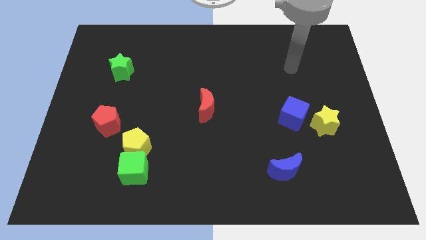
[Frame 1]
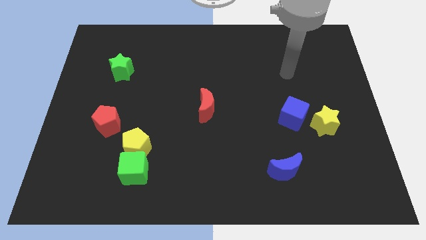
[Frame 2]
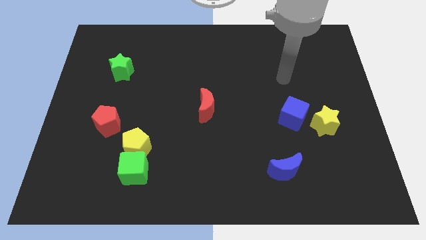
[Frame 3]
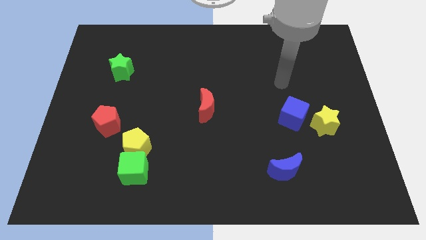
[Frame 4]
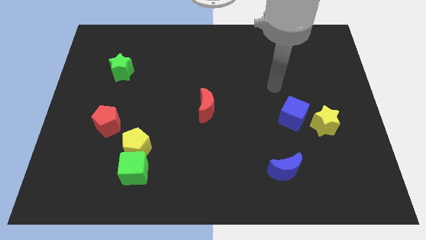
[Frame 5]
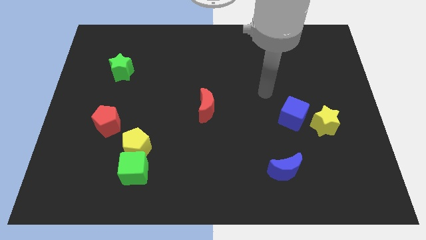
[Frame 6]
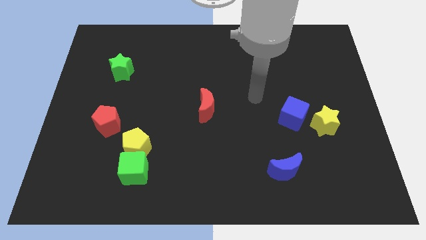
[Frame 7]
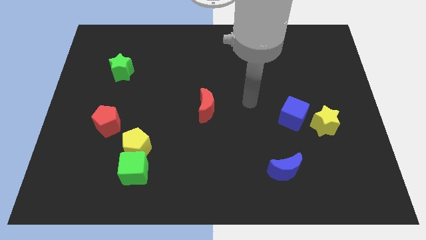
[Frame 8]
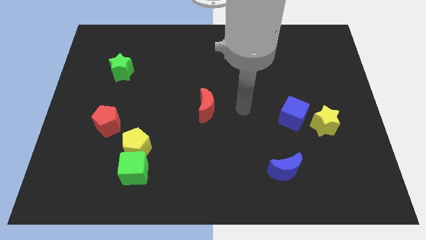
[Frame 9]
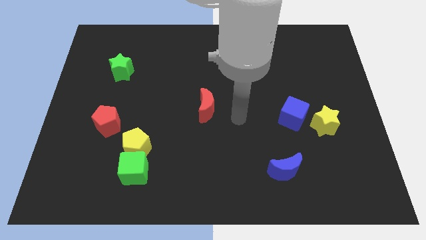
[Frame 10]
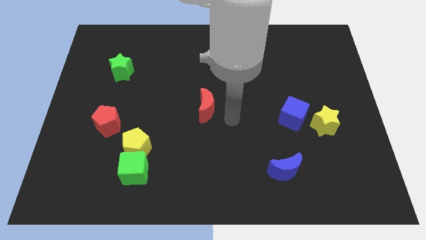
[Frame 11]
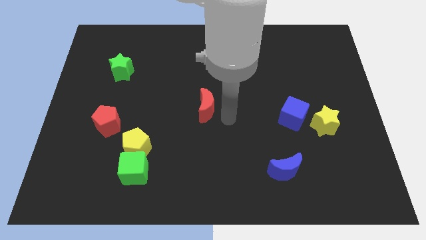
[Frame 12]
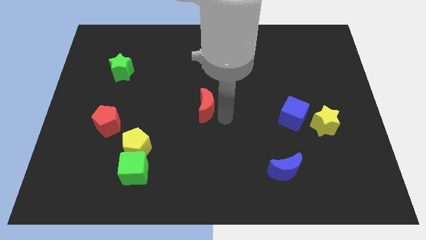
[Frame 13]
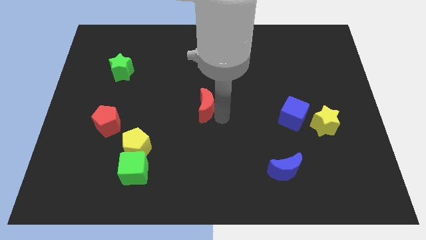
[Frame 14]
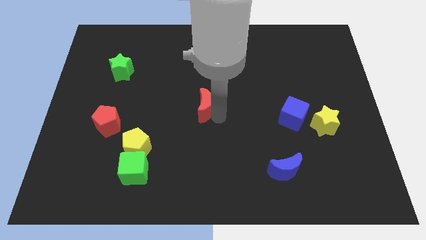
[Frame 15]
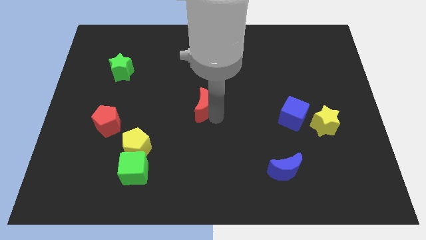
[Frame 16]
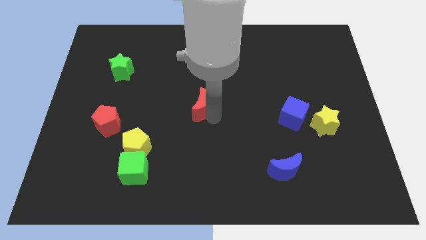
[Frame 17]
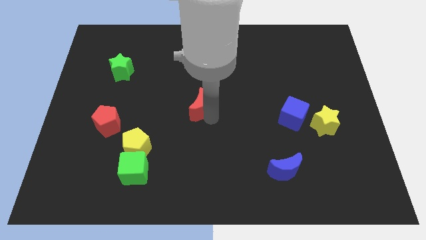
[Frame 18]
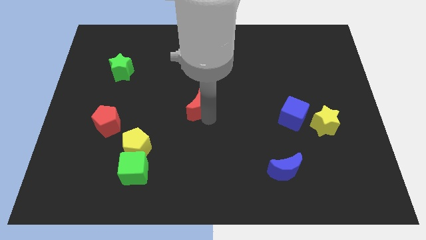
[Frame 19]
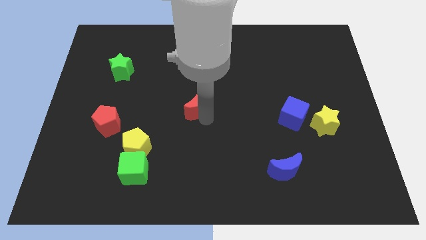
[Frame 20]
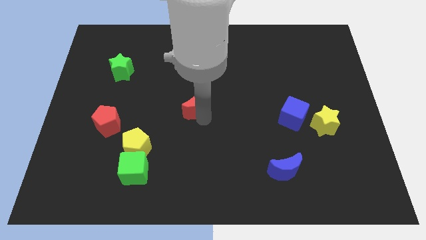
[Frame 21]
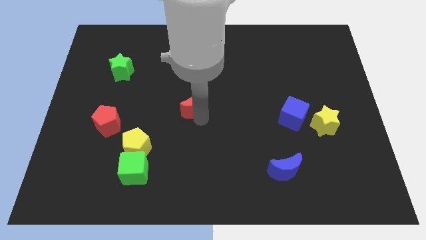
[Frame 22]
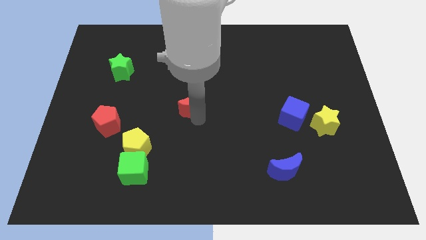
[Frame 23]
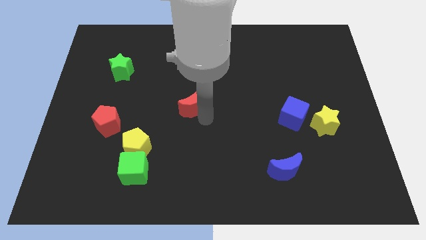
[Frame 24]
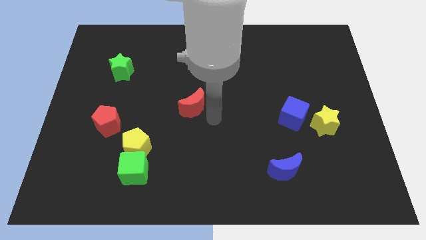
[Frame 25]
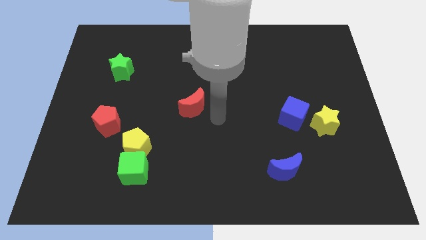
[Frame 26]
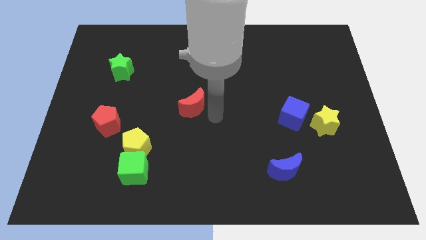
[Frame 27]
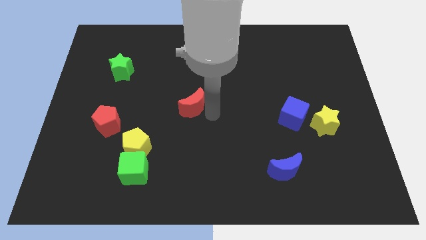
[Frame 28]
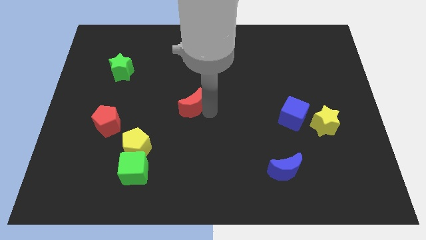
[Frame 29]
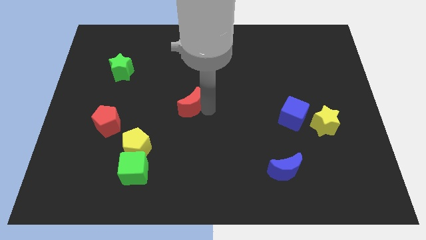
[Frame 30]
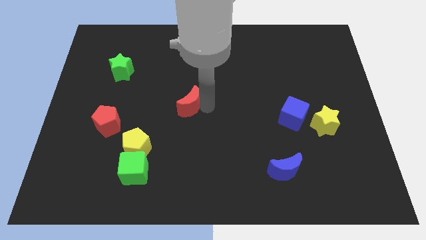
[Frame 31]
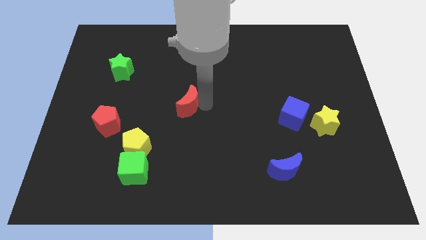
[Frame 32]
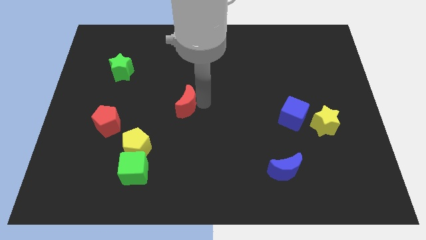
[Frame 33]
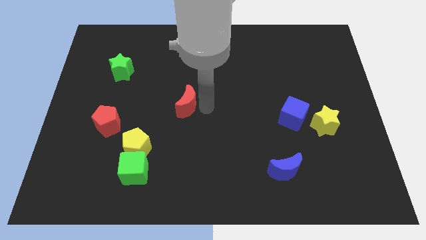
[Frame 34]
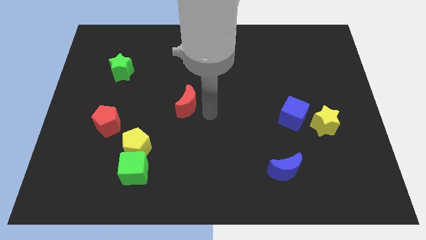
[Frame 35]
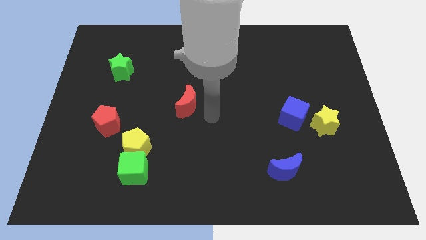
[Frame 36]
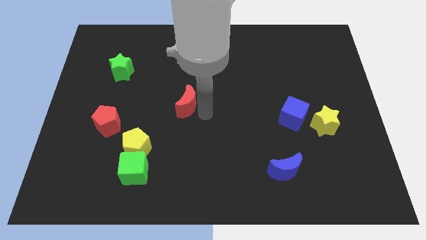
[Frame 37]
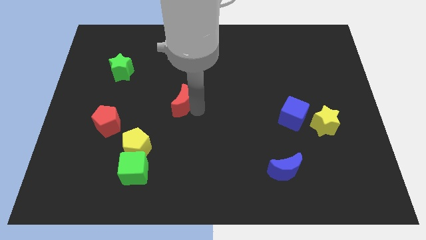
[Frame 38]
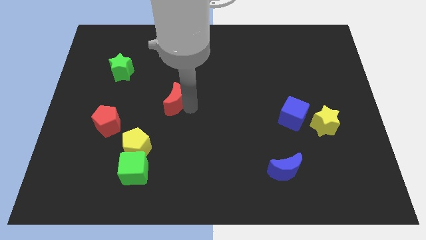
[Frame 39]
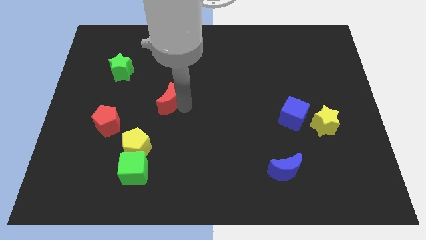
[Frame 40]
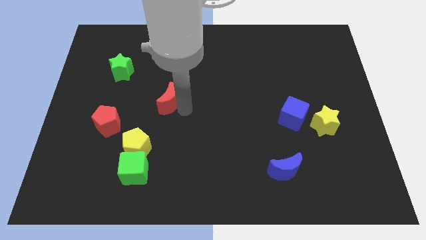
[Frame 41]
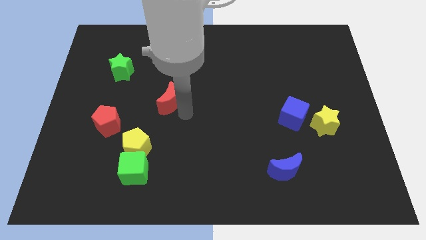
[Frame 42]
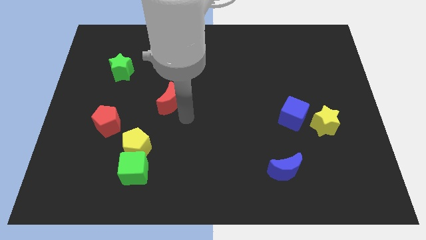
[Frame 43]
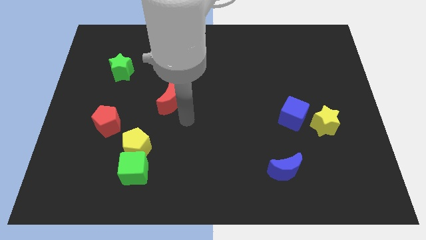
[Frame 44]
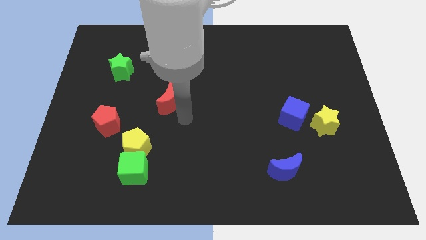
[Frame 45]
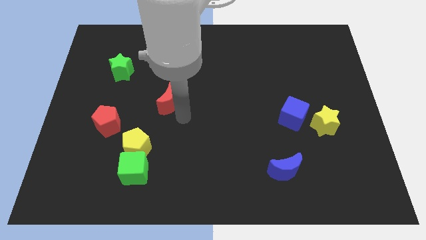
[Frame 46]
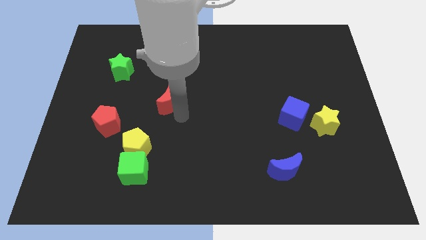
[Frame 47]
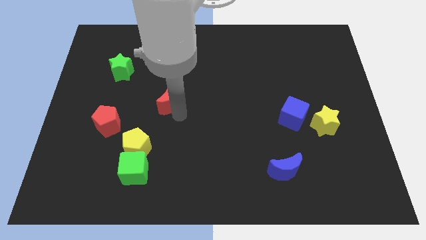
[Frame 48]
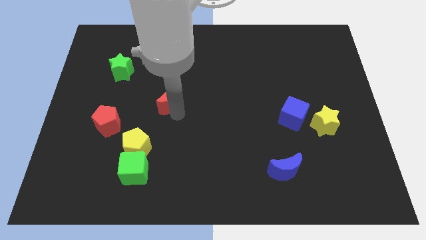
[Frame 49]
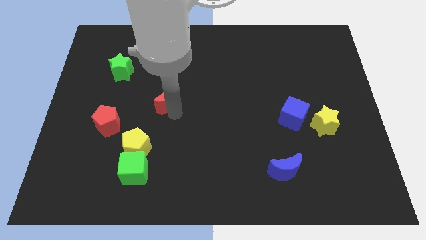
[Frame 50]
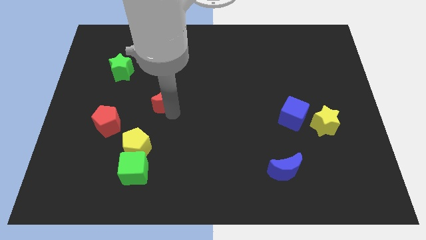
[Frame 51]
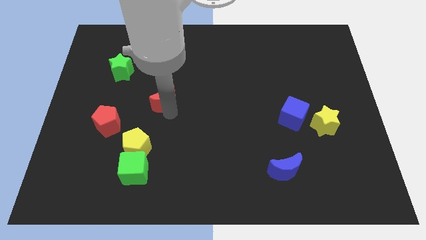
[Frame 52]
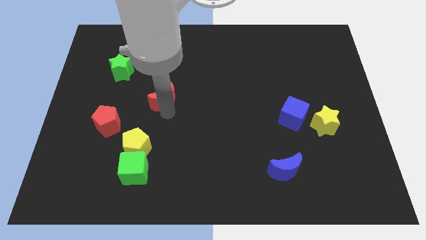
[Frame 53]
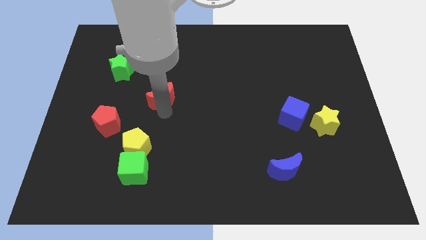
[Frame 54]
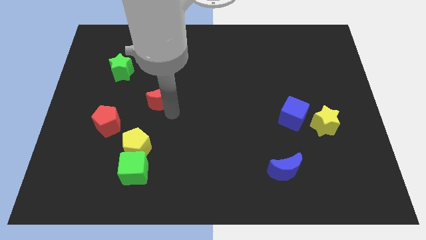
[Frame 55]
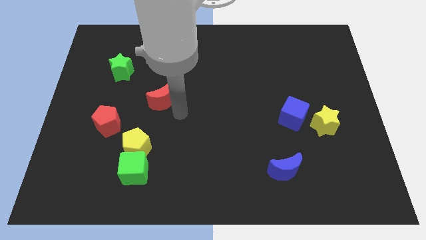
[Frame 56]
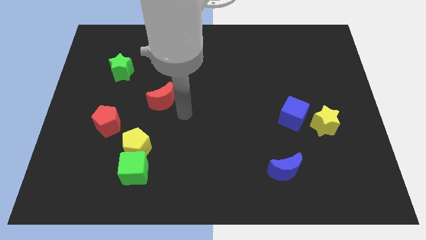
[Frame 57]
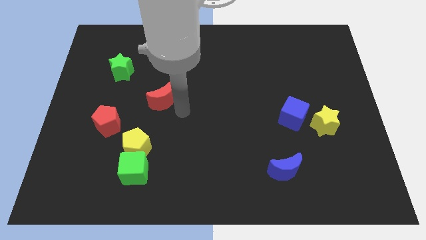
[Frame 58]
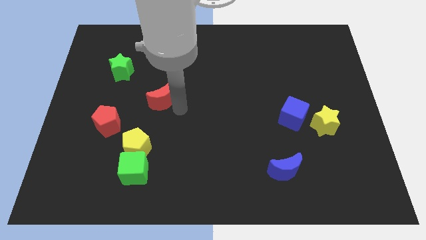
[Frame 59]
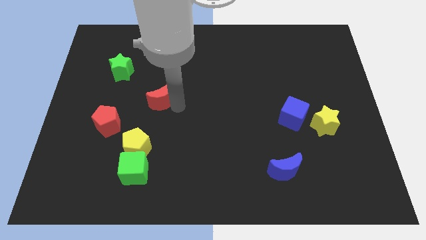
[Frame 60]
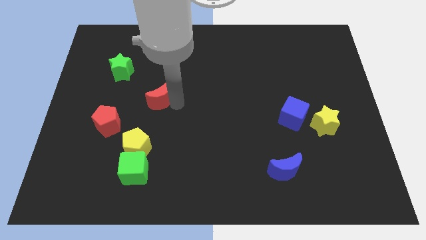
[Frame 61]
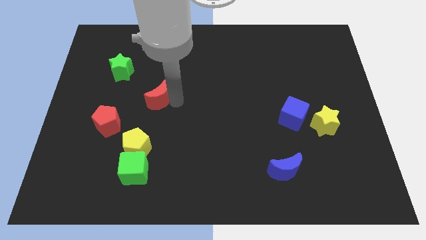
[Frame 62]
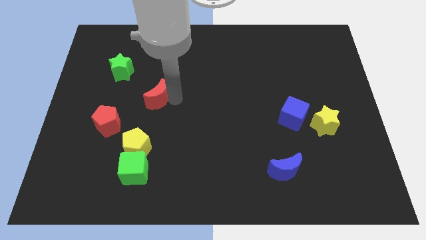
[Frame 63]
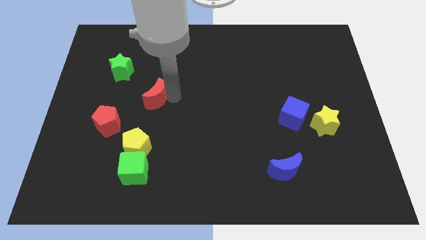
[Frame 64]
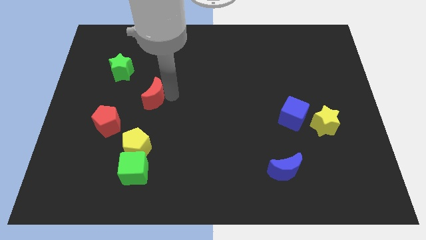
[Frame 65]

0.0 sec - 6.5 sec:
slide the red moon to the bottom right side of the green star

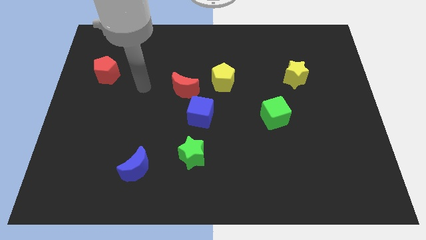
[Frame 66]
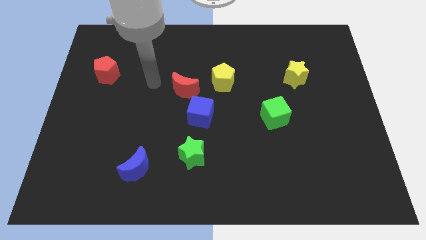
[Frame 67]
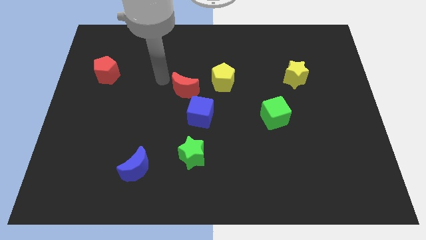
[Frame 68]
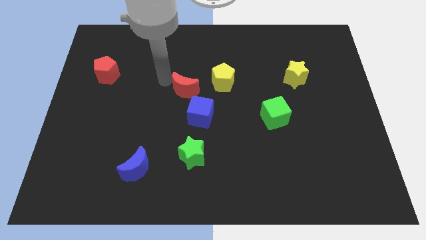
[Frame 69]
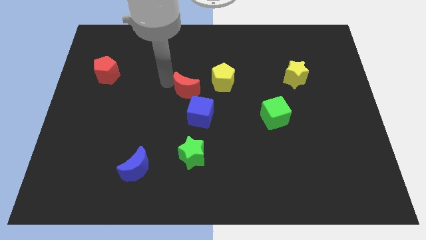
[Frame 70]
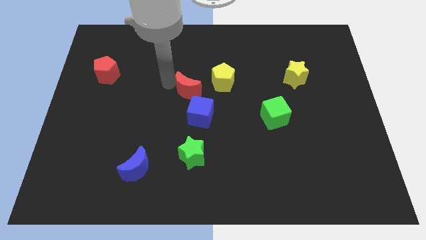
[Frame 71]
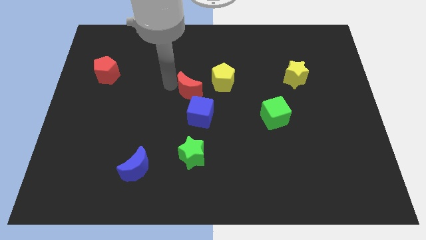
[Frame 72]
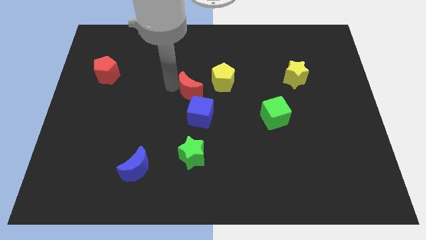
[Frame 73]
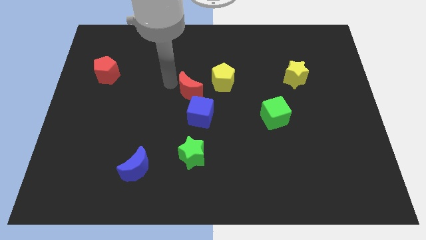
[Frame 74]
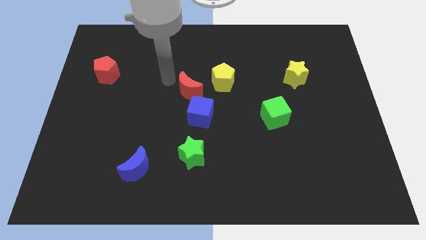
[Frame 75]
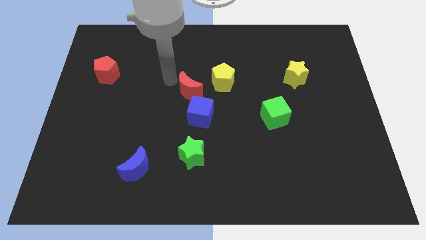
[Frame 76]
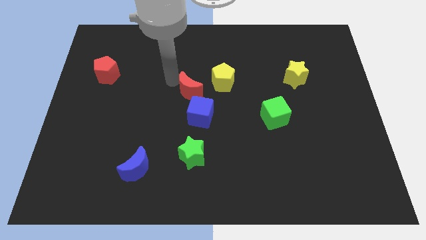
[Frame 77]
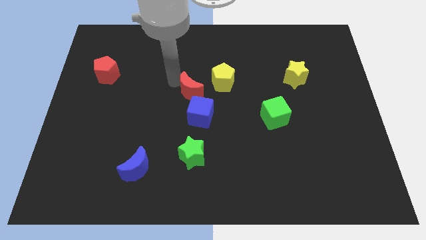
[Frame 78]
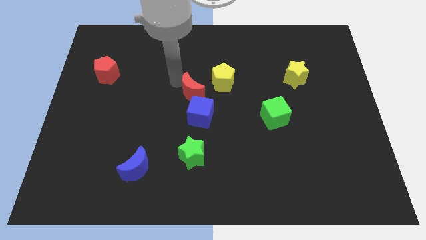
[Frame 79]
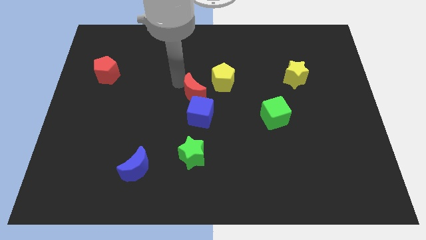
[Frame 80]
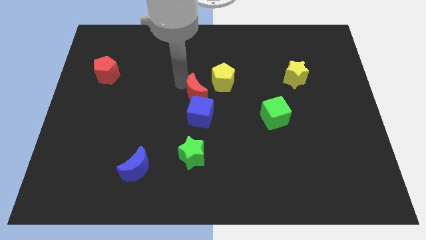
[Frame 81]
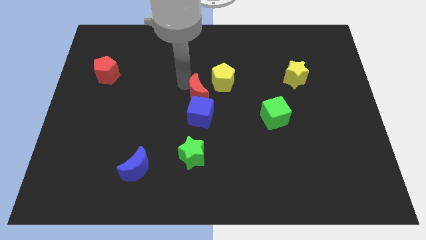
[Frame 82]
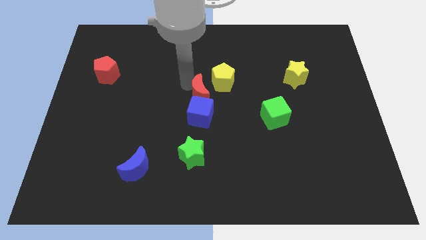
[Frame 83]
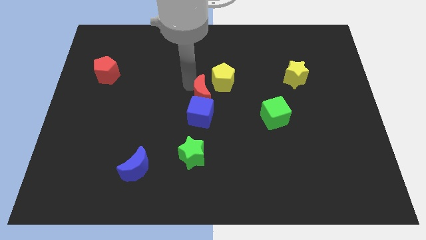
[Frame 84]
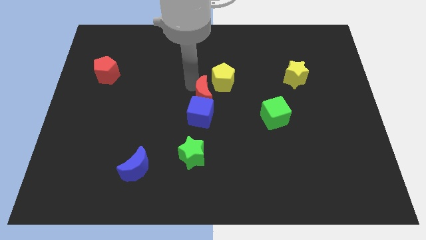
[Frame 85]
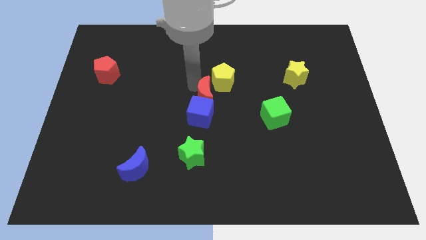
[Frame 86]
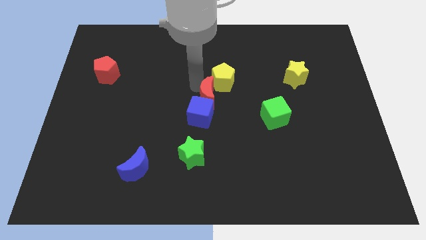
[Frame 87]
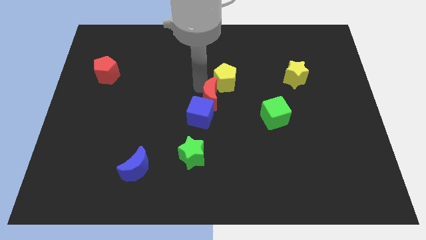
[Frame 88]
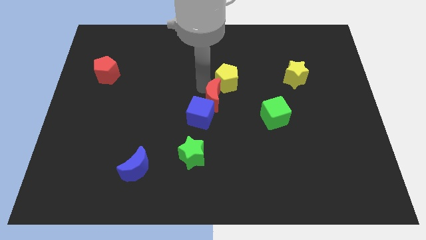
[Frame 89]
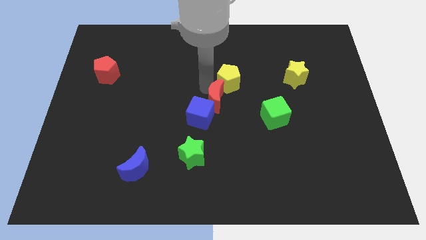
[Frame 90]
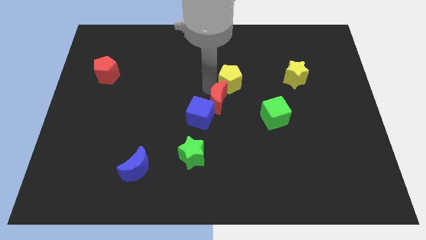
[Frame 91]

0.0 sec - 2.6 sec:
put the red moon just left of the green cube
